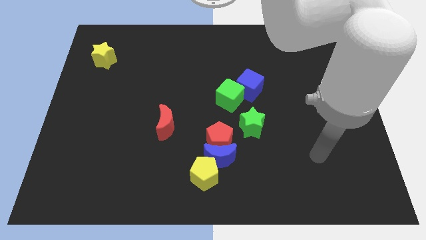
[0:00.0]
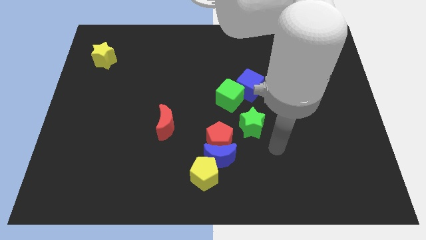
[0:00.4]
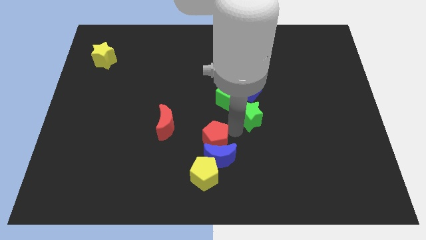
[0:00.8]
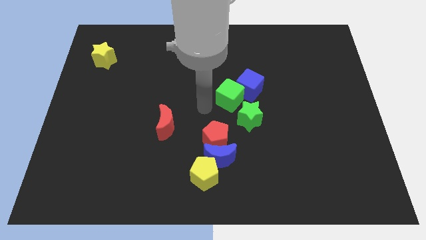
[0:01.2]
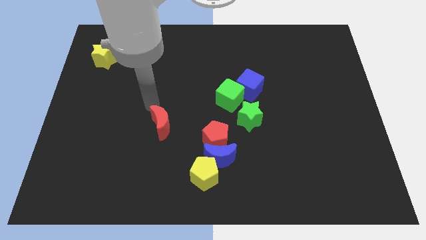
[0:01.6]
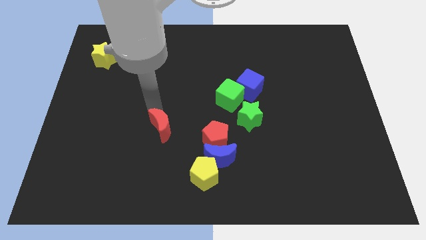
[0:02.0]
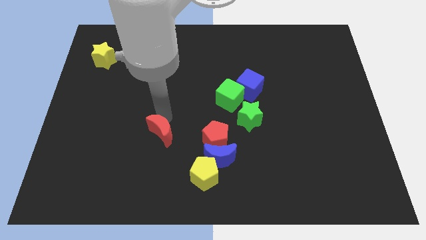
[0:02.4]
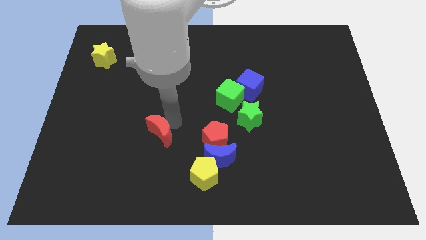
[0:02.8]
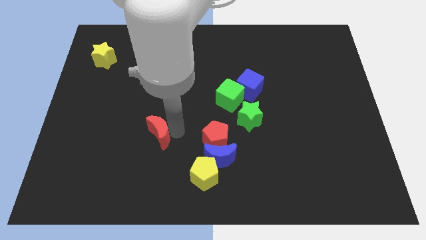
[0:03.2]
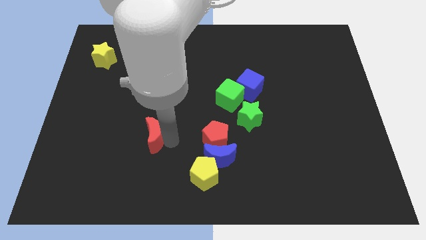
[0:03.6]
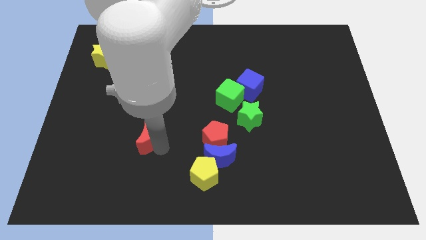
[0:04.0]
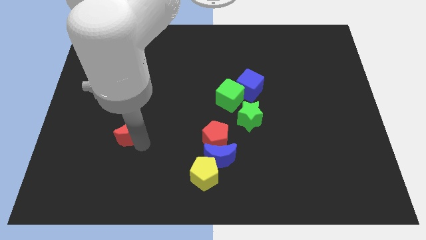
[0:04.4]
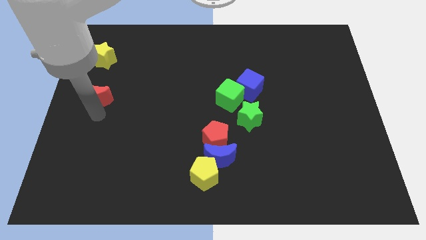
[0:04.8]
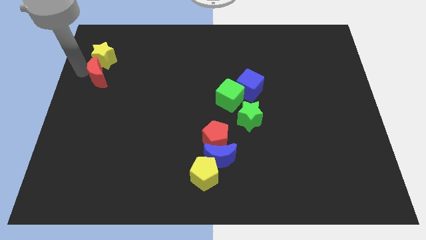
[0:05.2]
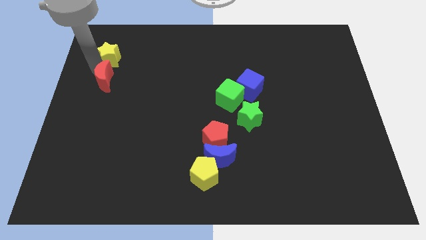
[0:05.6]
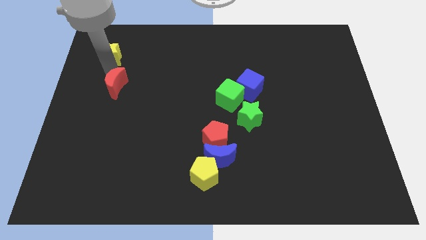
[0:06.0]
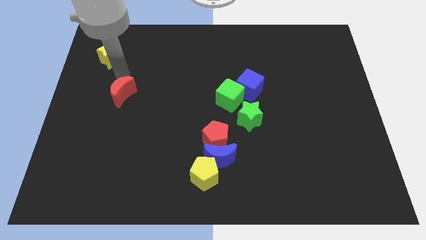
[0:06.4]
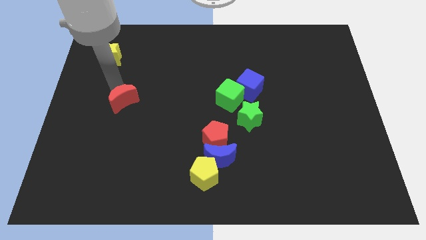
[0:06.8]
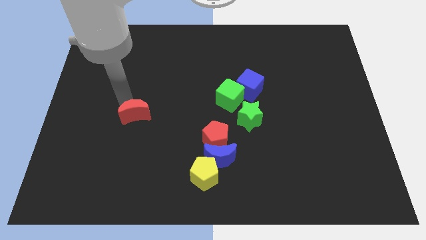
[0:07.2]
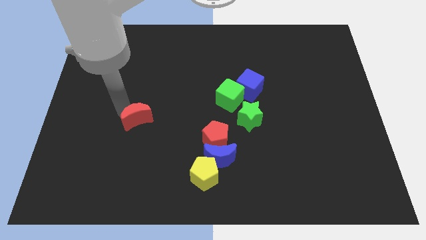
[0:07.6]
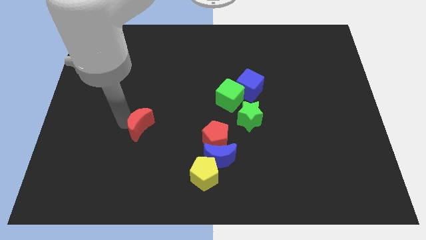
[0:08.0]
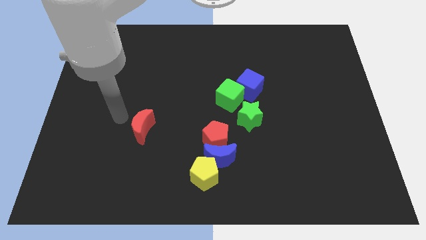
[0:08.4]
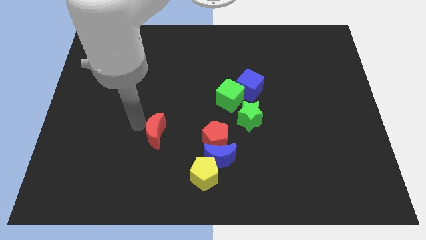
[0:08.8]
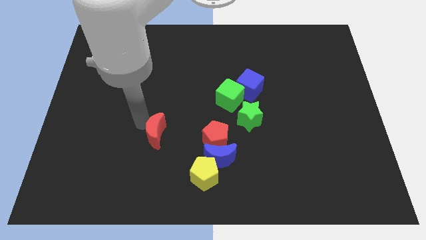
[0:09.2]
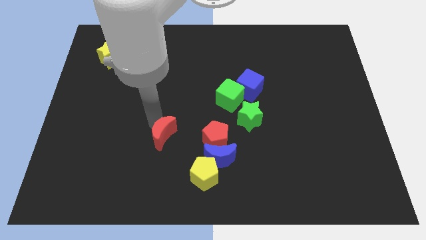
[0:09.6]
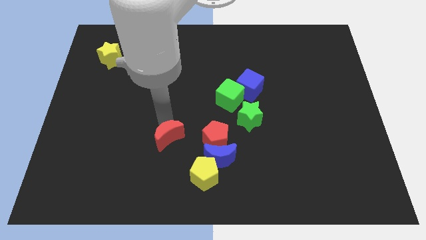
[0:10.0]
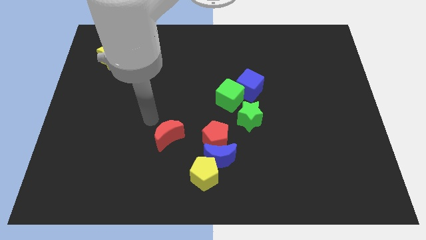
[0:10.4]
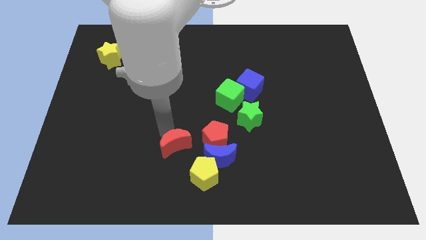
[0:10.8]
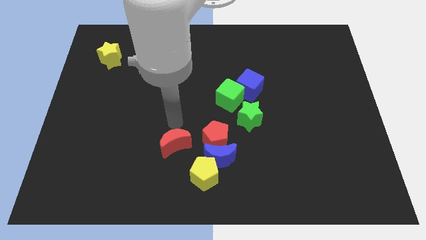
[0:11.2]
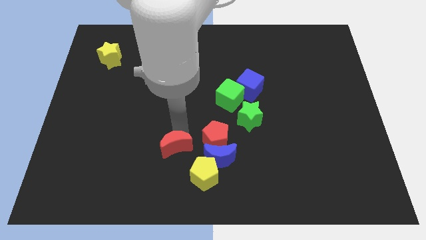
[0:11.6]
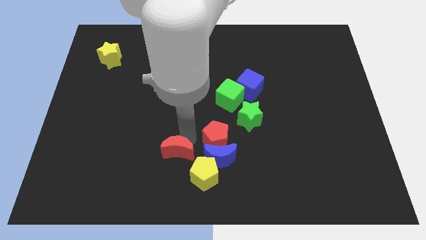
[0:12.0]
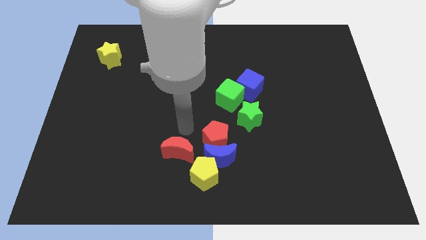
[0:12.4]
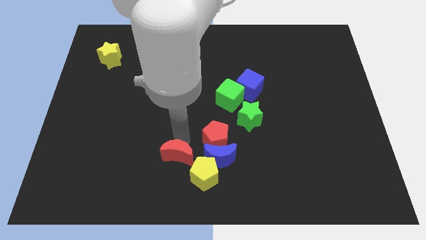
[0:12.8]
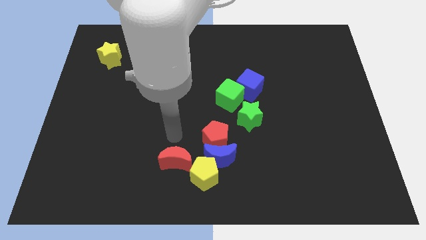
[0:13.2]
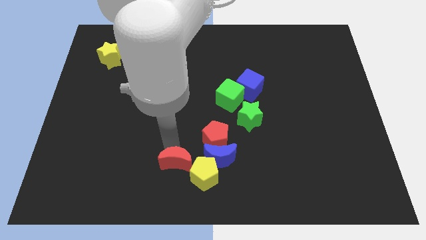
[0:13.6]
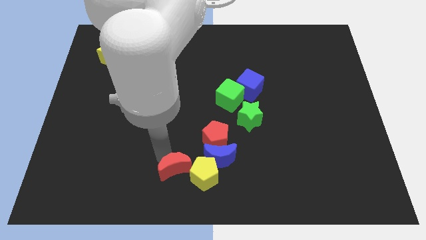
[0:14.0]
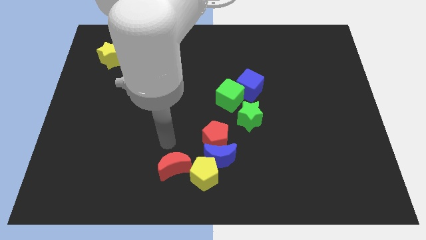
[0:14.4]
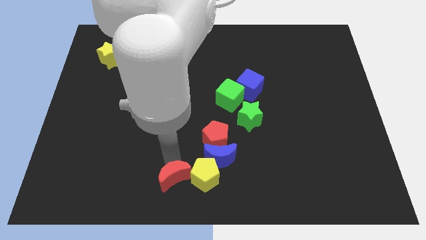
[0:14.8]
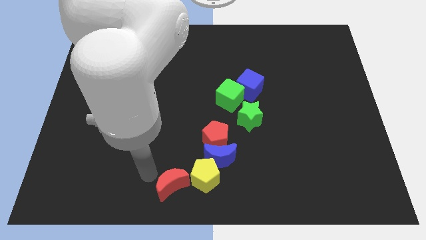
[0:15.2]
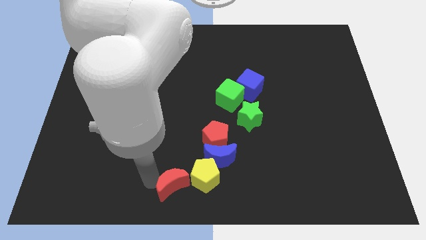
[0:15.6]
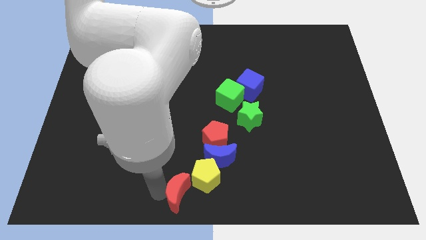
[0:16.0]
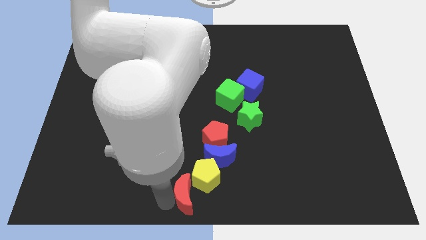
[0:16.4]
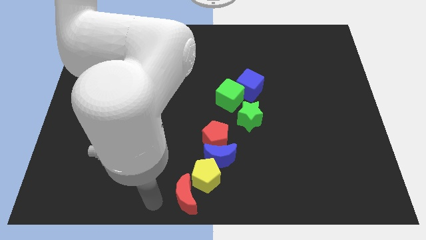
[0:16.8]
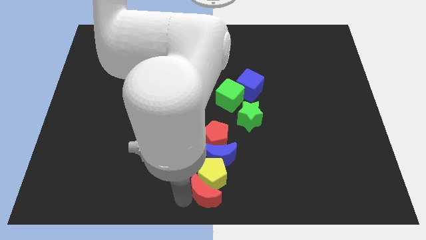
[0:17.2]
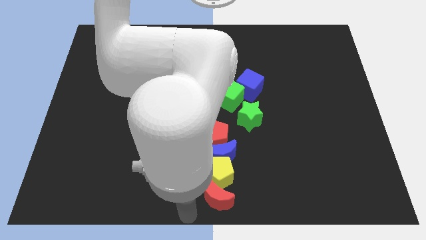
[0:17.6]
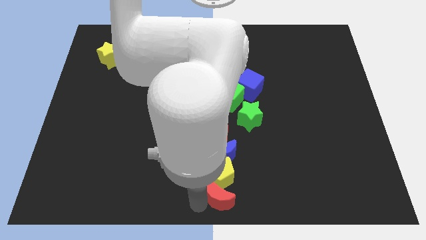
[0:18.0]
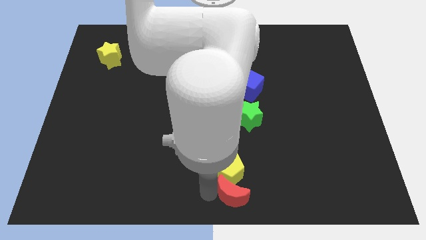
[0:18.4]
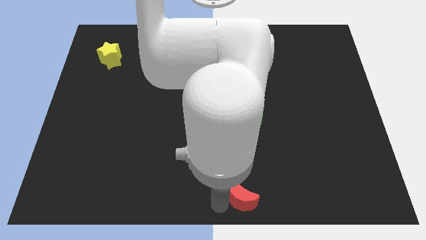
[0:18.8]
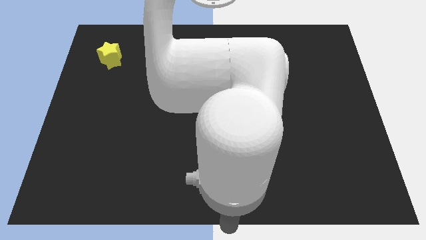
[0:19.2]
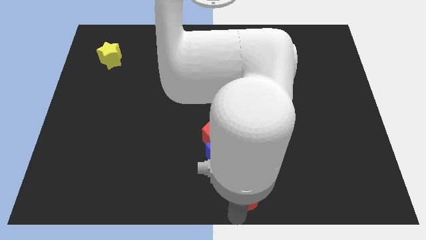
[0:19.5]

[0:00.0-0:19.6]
push the red moon to the bottom right of the blue moon

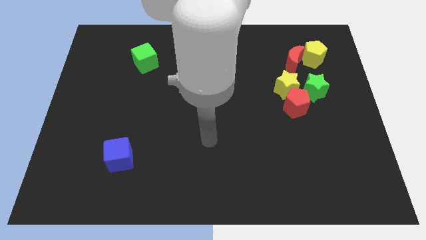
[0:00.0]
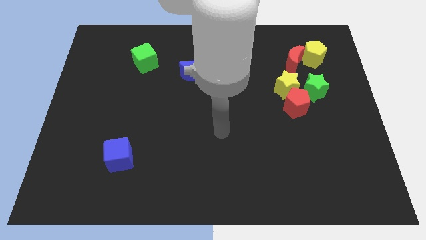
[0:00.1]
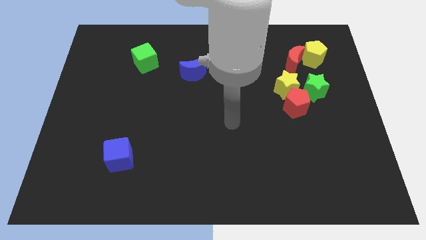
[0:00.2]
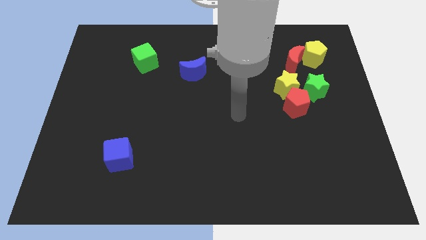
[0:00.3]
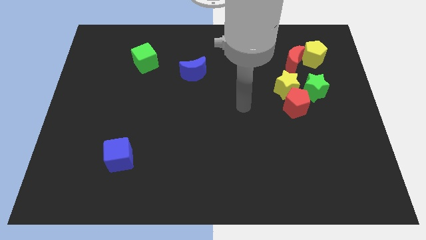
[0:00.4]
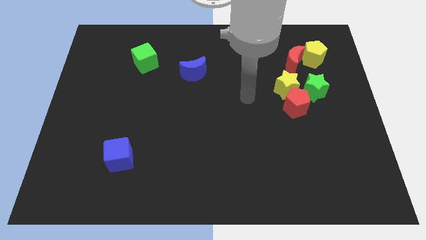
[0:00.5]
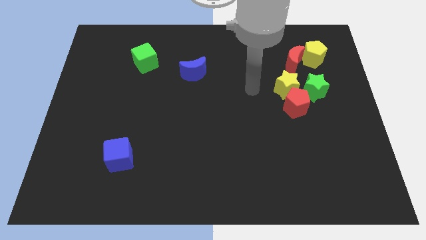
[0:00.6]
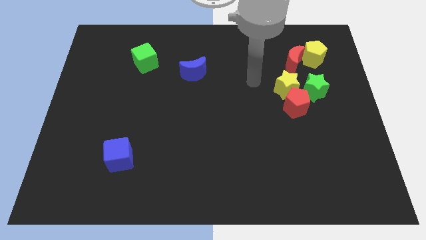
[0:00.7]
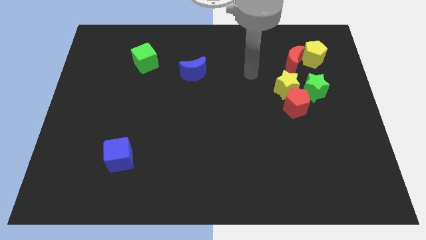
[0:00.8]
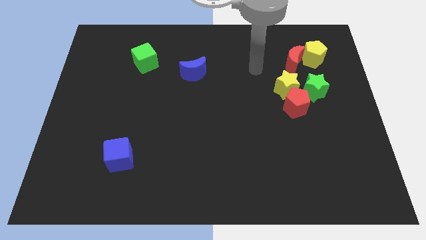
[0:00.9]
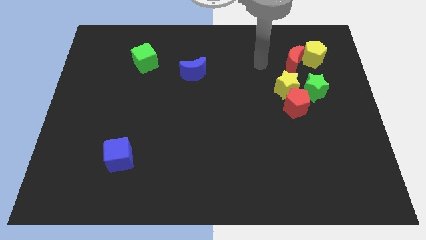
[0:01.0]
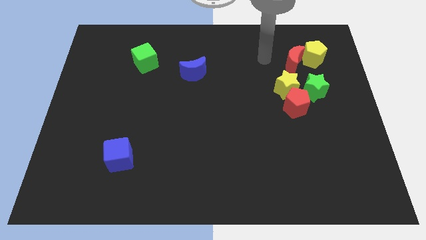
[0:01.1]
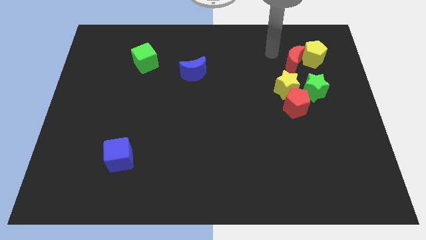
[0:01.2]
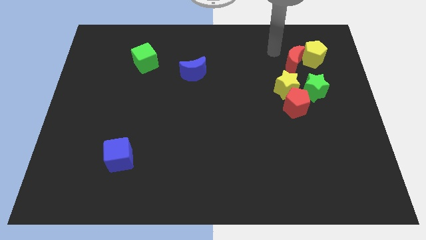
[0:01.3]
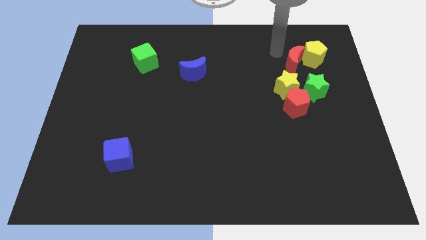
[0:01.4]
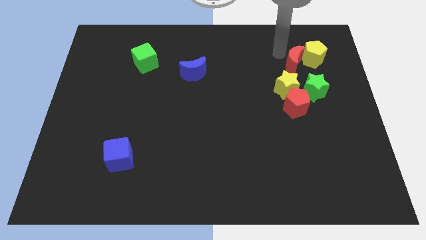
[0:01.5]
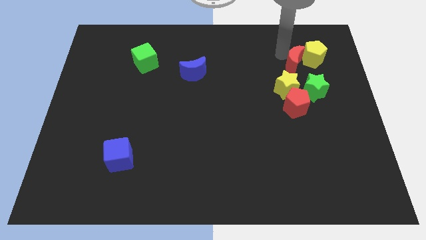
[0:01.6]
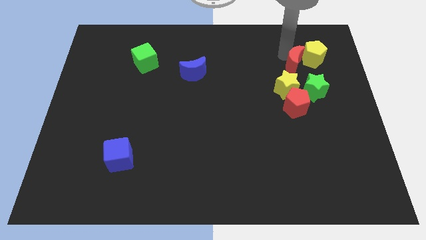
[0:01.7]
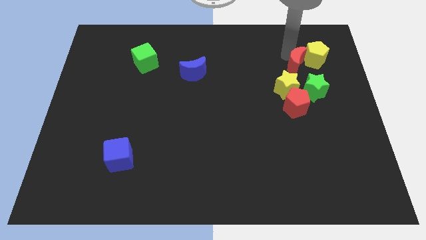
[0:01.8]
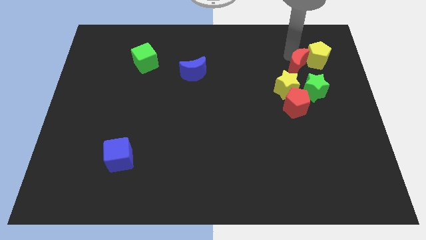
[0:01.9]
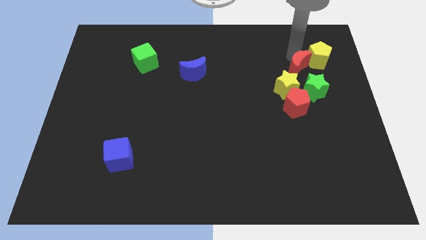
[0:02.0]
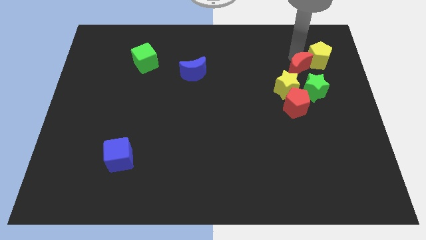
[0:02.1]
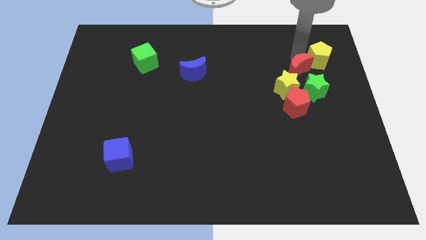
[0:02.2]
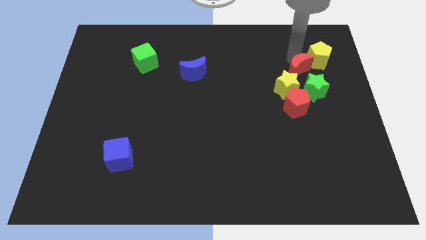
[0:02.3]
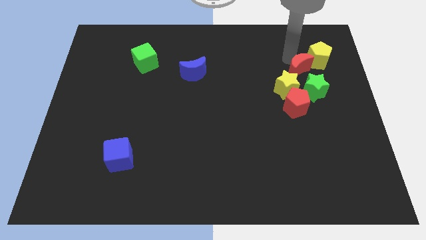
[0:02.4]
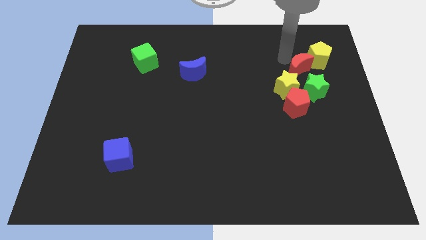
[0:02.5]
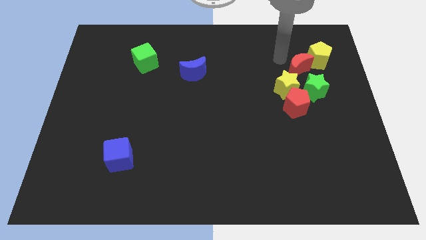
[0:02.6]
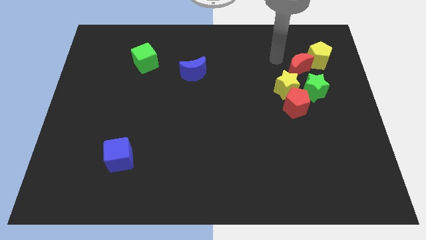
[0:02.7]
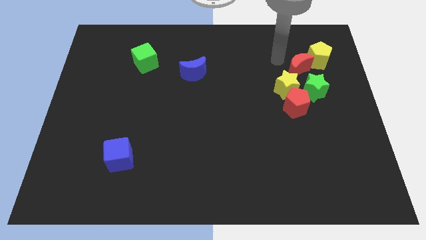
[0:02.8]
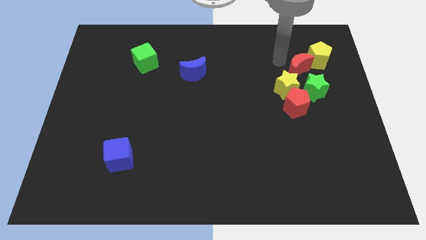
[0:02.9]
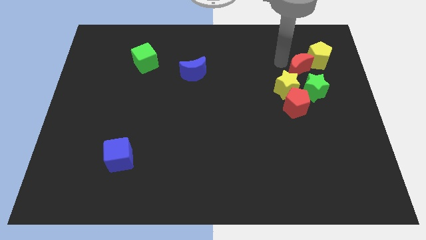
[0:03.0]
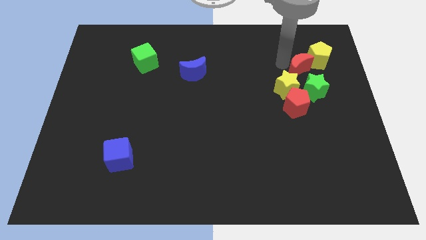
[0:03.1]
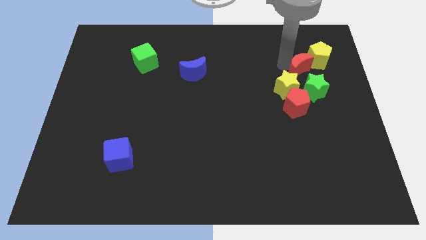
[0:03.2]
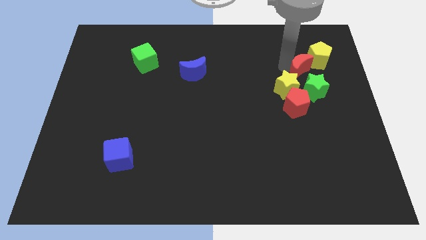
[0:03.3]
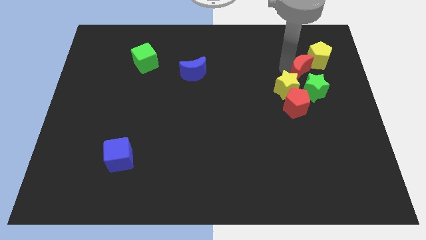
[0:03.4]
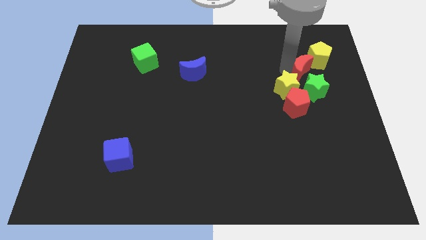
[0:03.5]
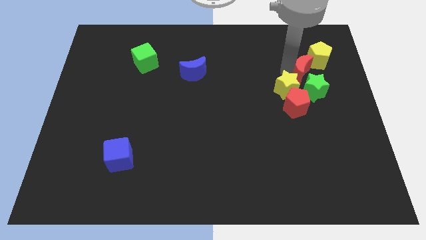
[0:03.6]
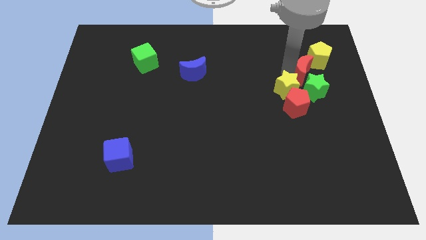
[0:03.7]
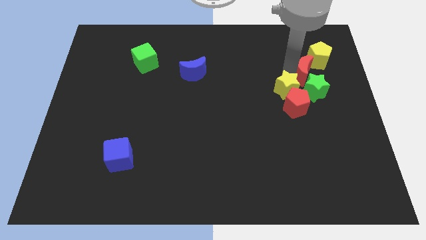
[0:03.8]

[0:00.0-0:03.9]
put the red moon right of the yellow star
